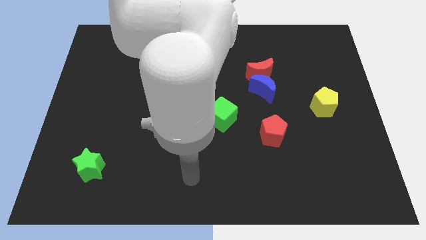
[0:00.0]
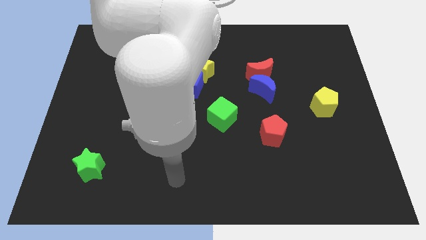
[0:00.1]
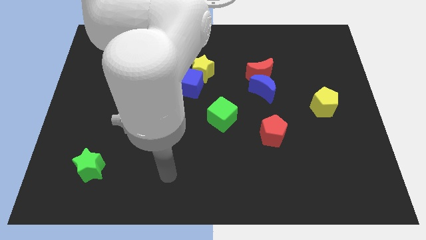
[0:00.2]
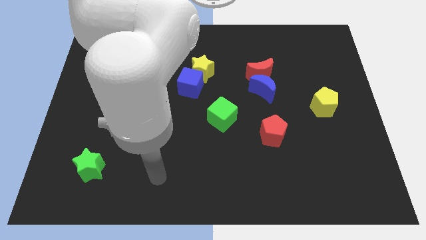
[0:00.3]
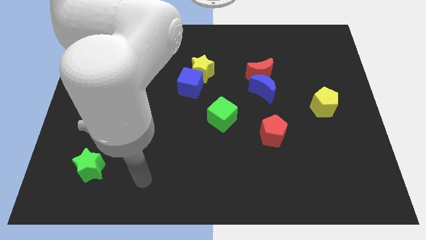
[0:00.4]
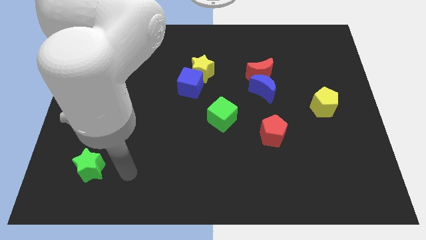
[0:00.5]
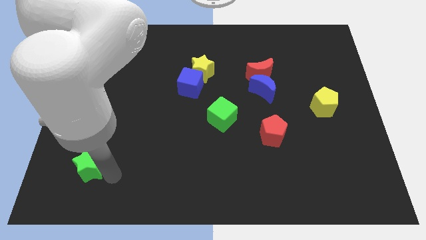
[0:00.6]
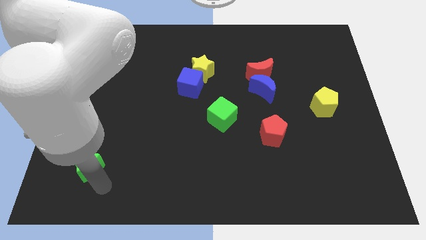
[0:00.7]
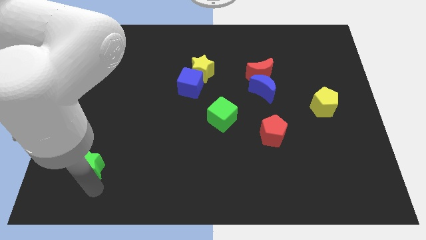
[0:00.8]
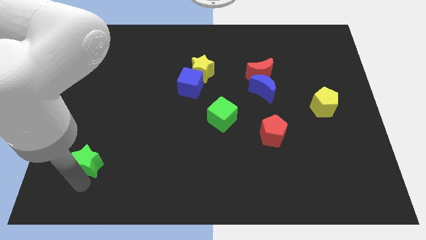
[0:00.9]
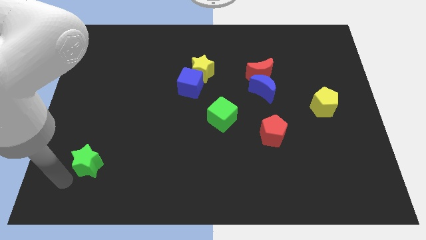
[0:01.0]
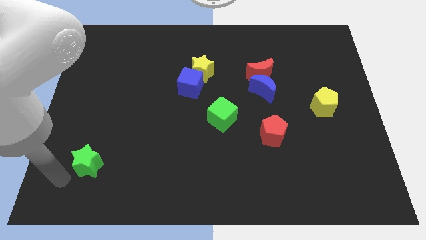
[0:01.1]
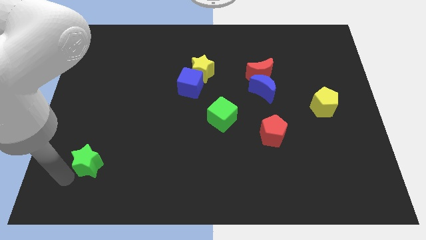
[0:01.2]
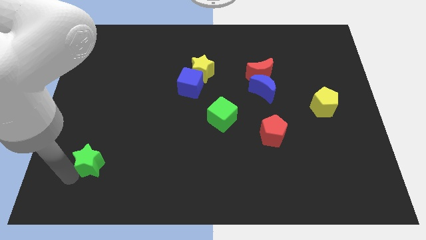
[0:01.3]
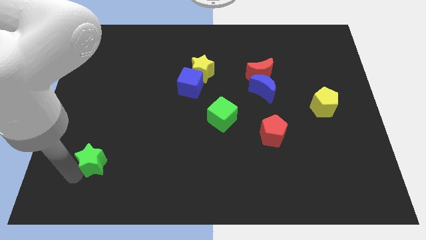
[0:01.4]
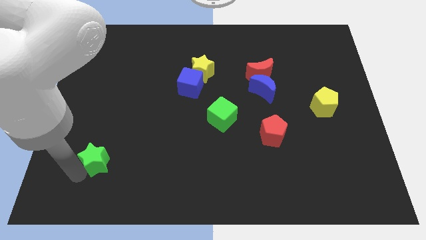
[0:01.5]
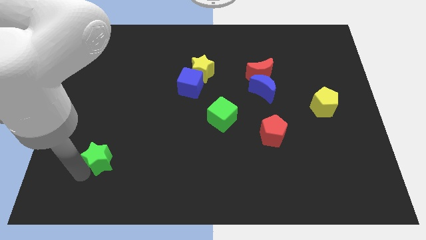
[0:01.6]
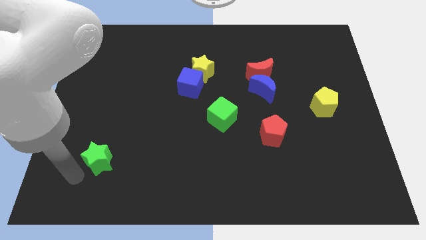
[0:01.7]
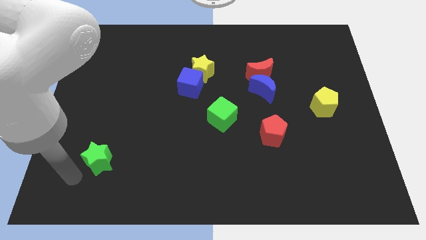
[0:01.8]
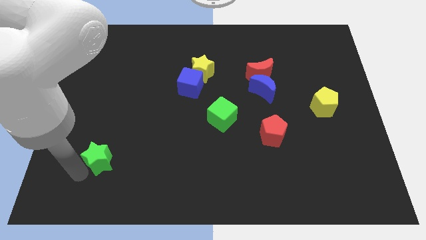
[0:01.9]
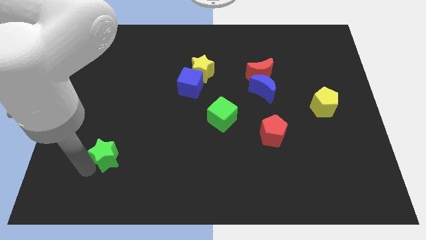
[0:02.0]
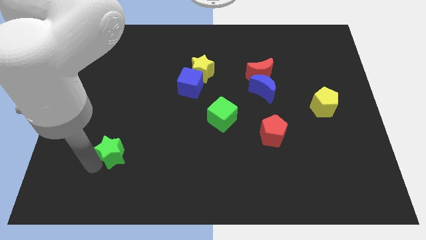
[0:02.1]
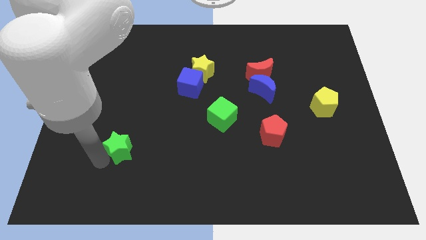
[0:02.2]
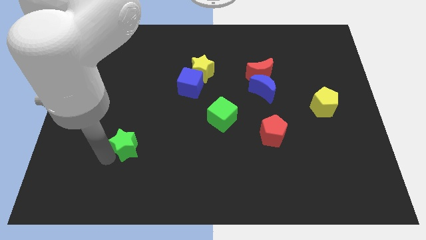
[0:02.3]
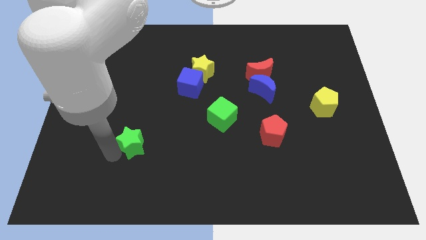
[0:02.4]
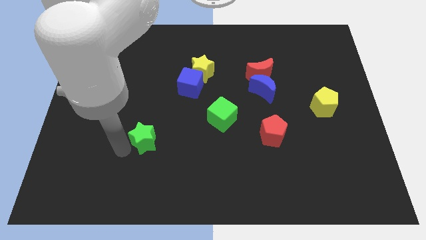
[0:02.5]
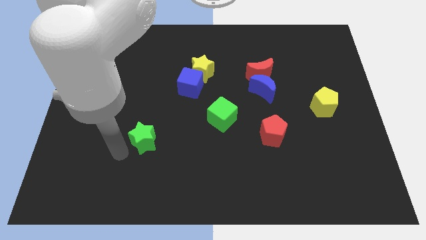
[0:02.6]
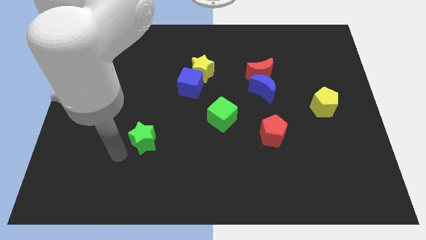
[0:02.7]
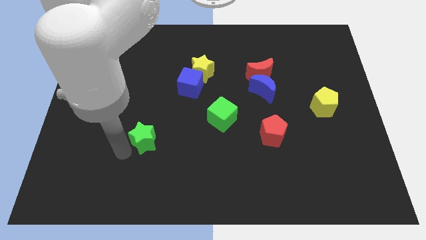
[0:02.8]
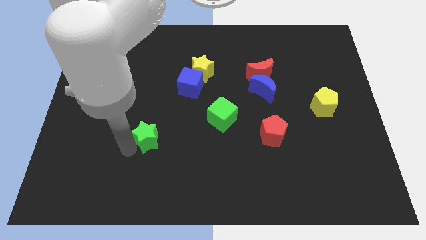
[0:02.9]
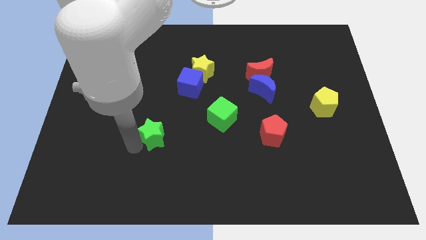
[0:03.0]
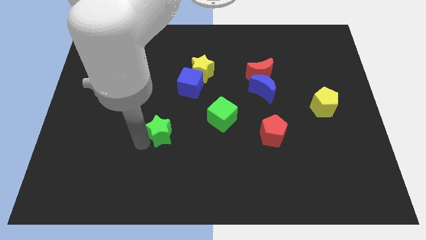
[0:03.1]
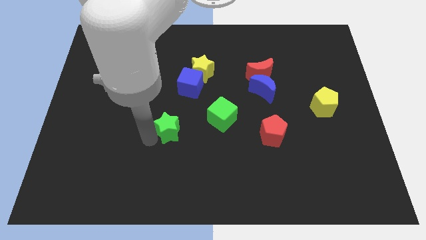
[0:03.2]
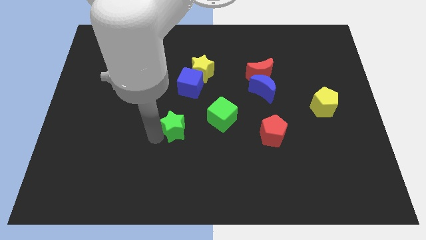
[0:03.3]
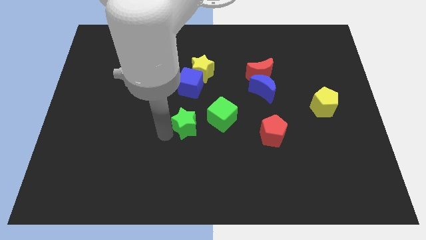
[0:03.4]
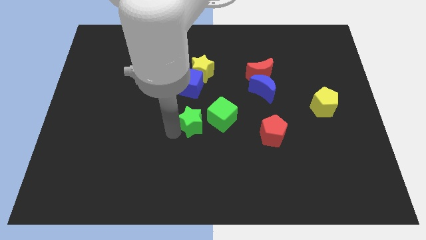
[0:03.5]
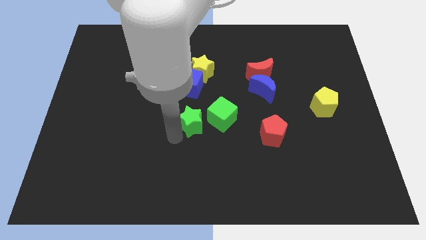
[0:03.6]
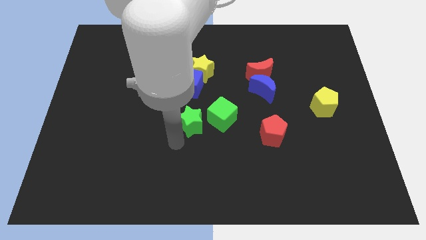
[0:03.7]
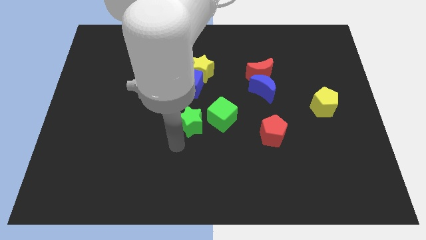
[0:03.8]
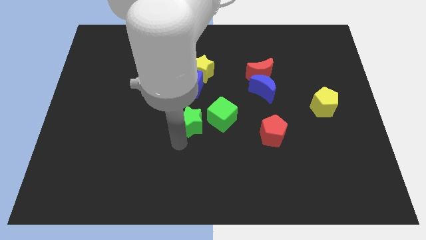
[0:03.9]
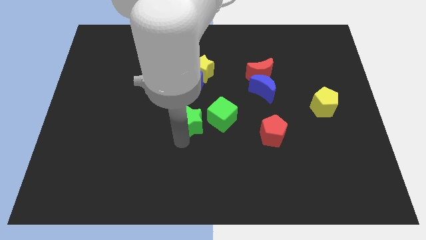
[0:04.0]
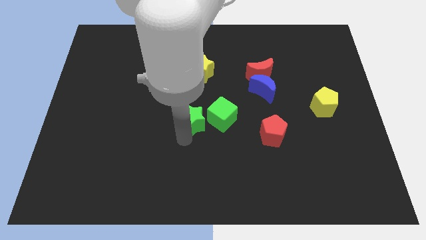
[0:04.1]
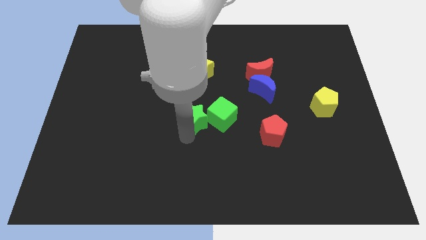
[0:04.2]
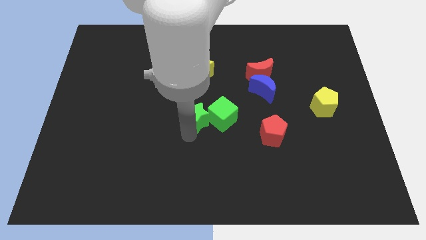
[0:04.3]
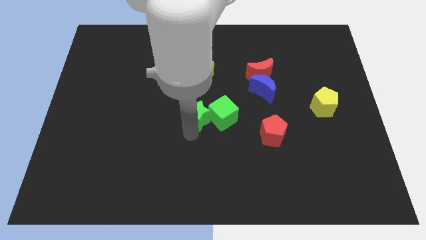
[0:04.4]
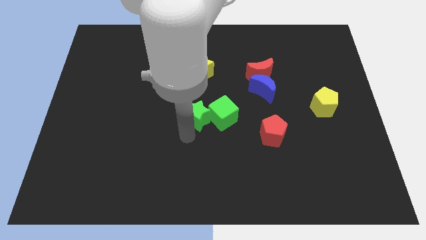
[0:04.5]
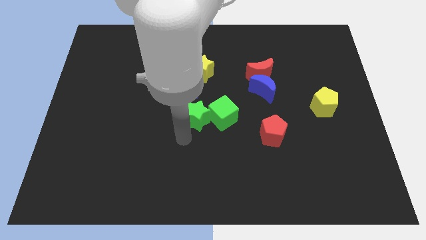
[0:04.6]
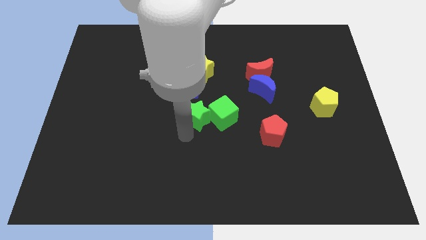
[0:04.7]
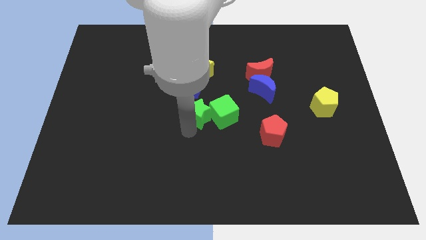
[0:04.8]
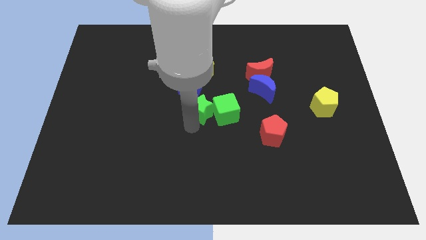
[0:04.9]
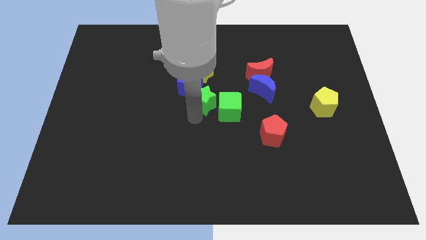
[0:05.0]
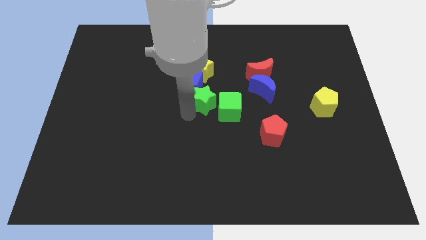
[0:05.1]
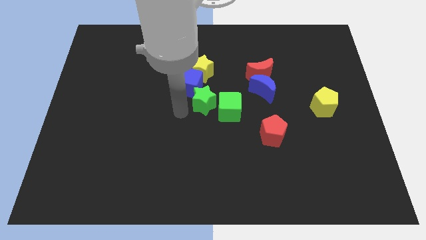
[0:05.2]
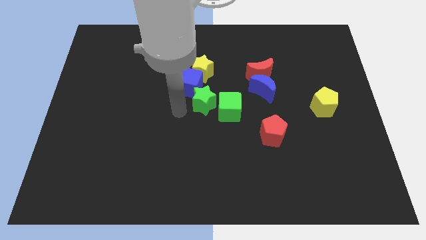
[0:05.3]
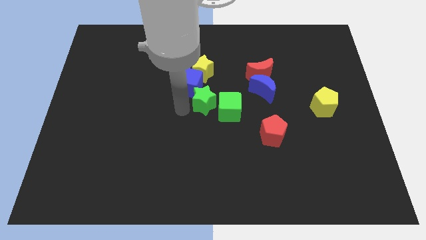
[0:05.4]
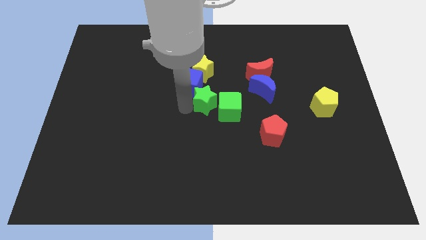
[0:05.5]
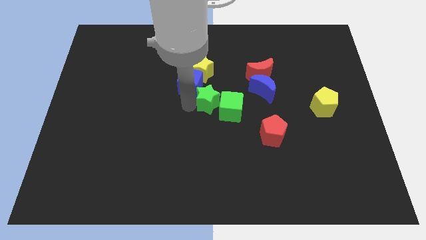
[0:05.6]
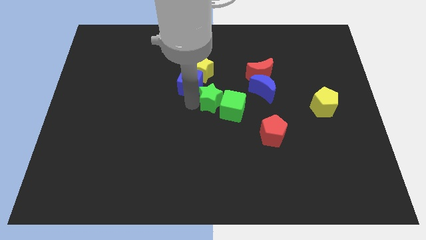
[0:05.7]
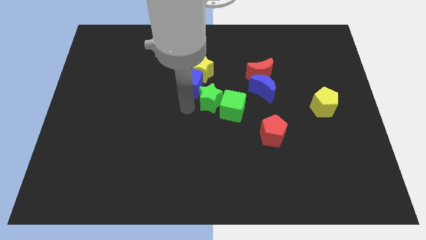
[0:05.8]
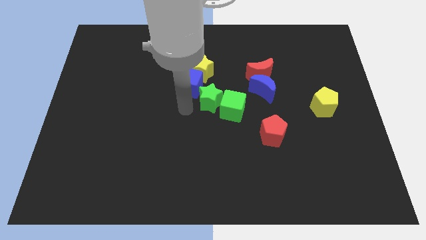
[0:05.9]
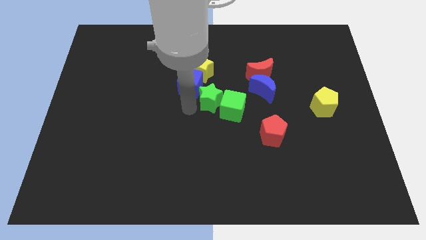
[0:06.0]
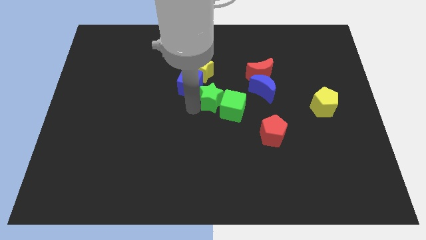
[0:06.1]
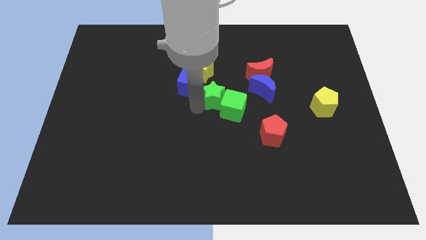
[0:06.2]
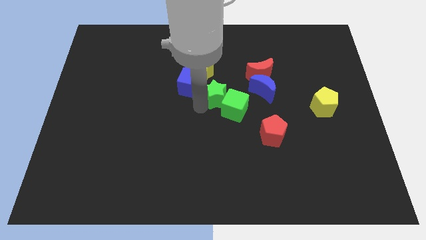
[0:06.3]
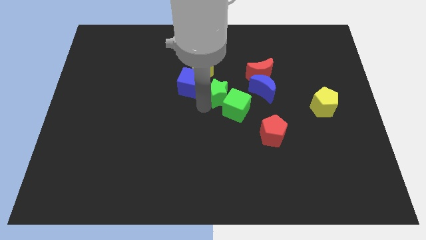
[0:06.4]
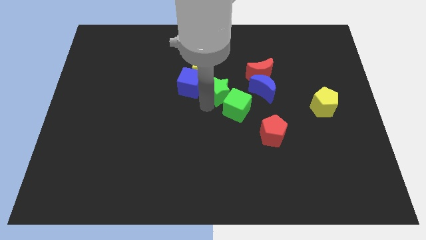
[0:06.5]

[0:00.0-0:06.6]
push the green star to the bottom left side of the red moon
